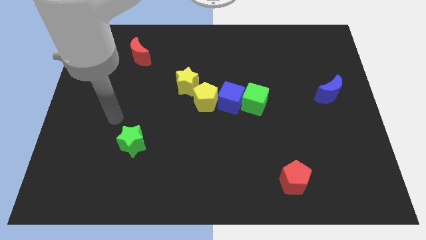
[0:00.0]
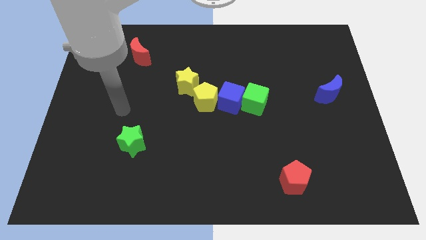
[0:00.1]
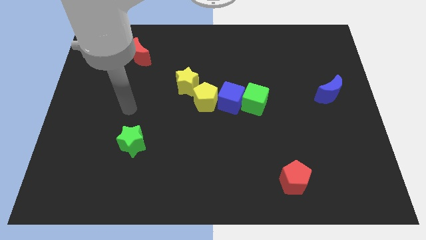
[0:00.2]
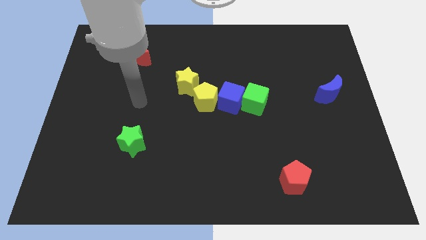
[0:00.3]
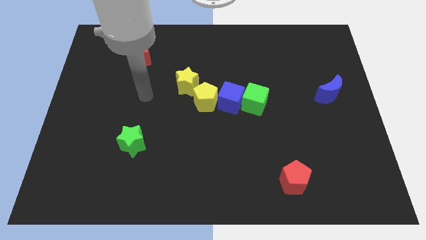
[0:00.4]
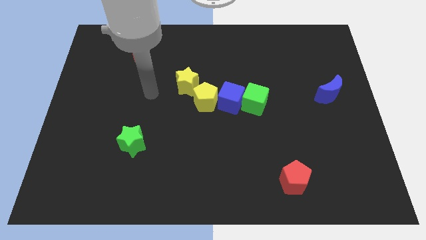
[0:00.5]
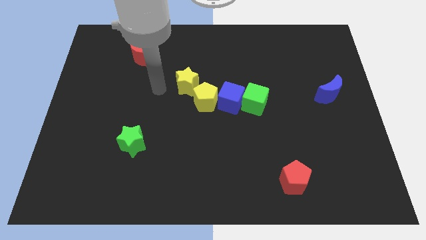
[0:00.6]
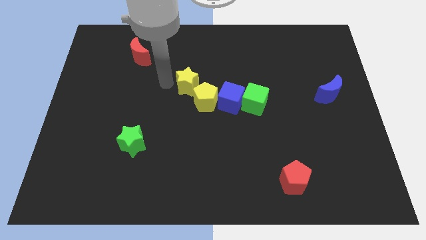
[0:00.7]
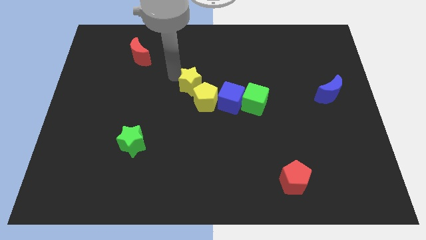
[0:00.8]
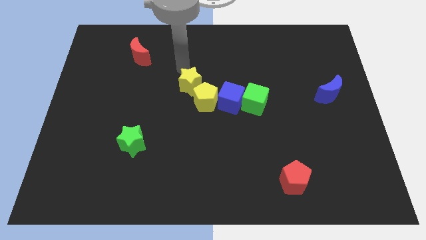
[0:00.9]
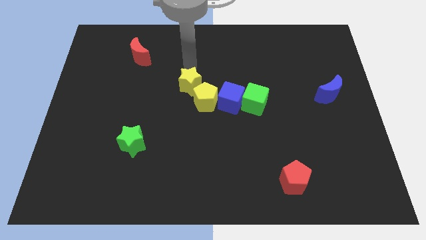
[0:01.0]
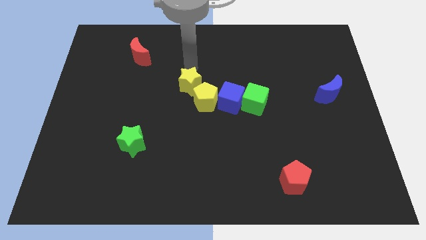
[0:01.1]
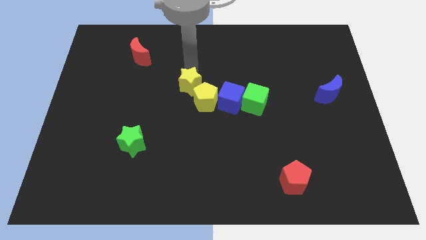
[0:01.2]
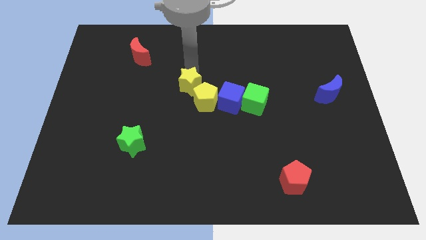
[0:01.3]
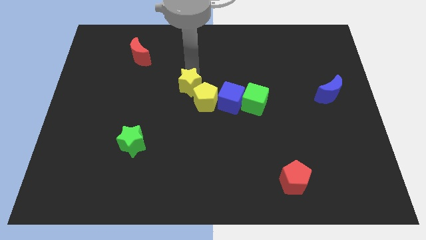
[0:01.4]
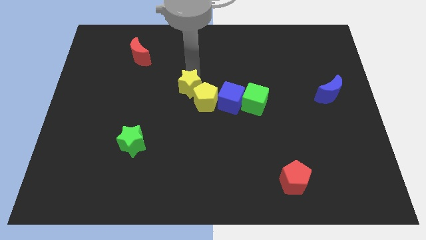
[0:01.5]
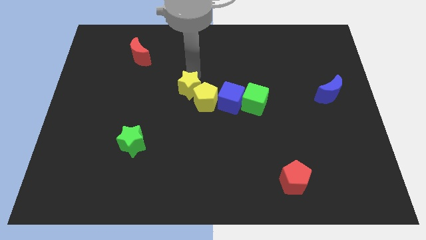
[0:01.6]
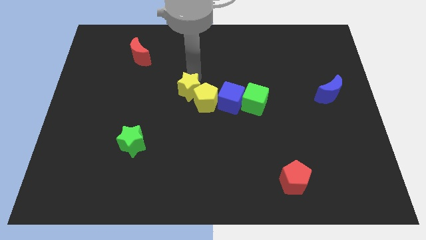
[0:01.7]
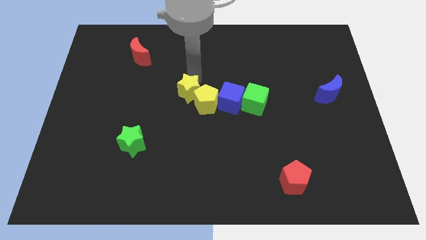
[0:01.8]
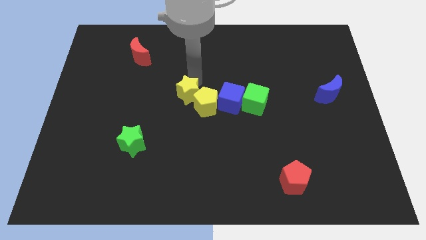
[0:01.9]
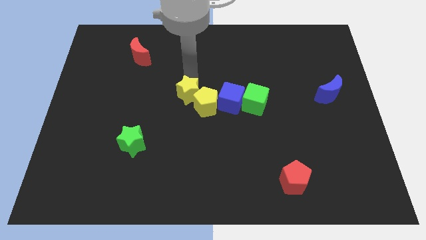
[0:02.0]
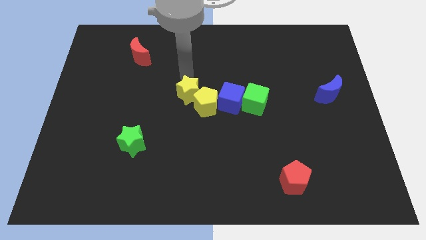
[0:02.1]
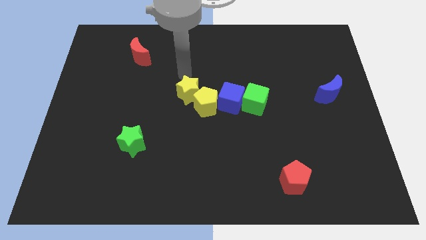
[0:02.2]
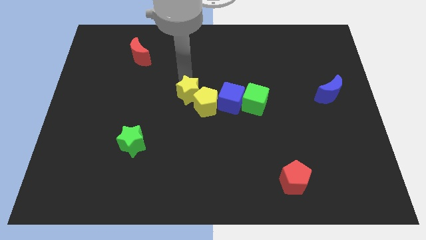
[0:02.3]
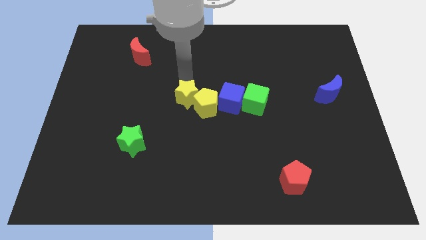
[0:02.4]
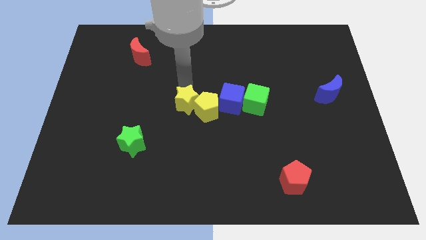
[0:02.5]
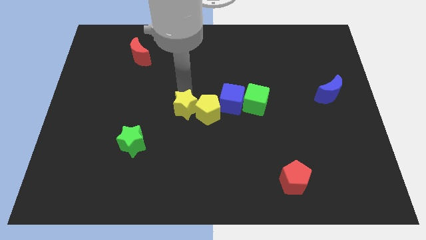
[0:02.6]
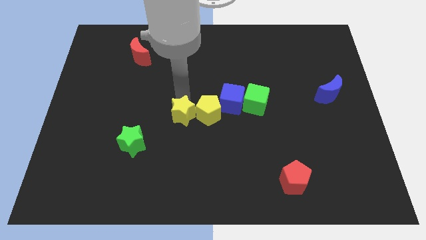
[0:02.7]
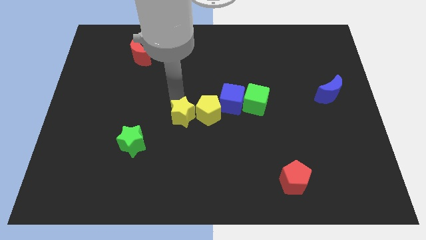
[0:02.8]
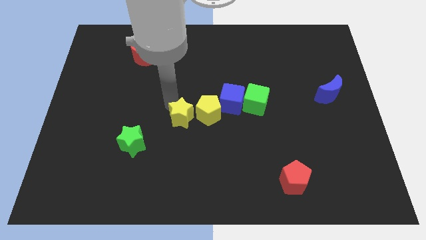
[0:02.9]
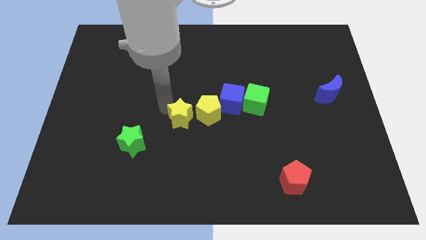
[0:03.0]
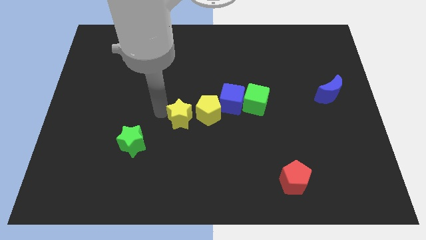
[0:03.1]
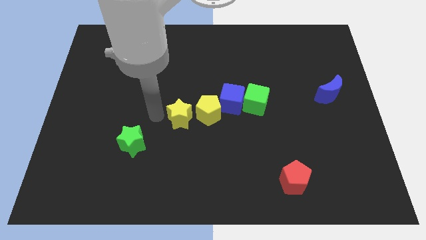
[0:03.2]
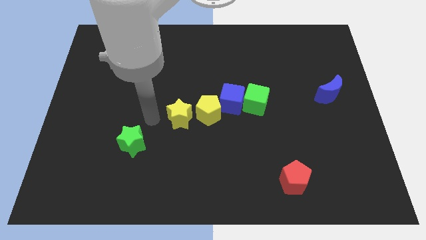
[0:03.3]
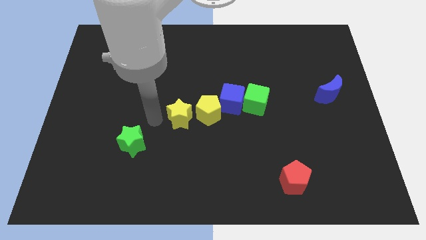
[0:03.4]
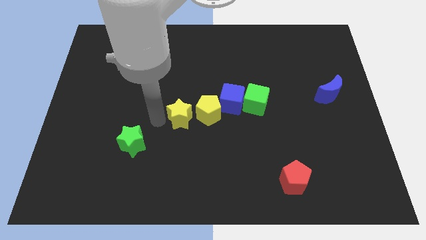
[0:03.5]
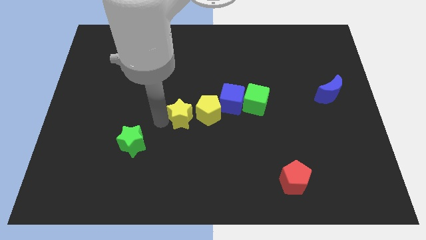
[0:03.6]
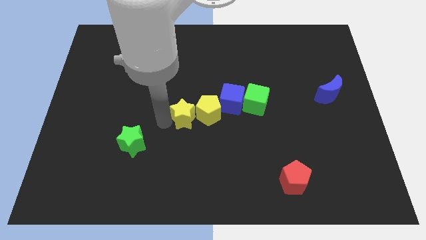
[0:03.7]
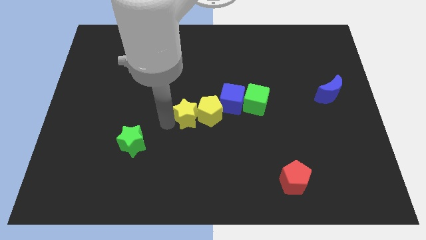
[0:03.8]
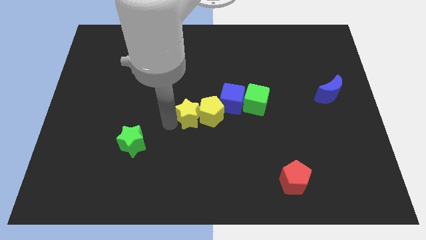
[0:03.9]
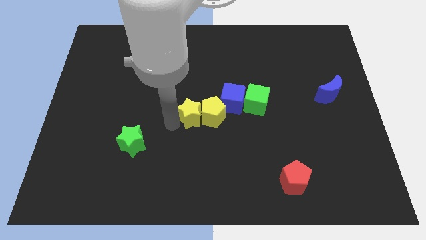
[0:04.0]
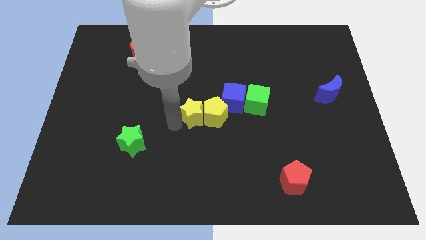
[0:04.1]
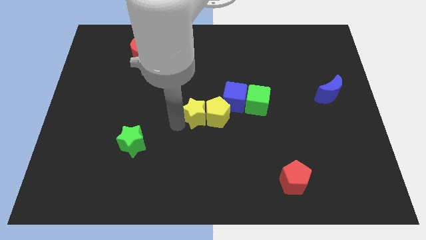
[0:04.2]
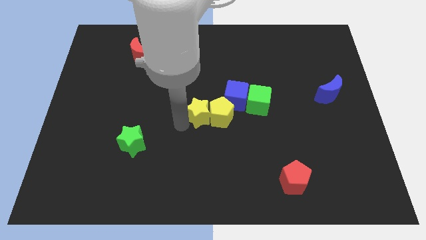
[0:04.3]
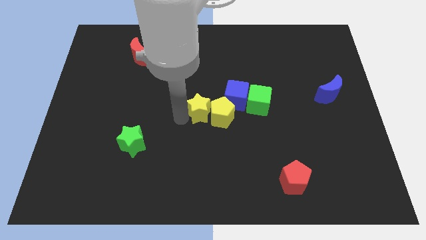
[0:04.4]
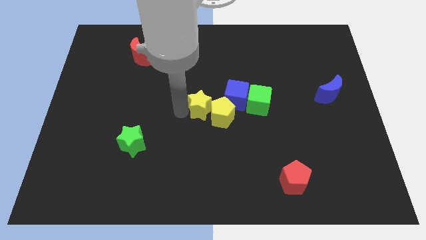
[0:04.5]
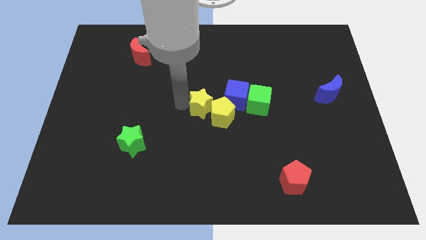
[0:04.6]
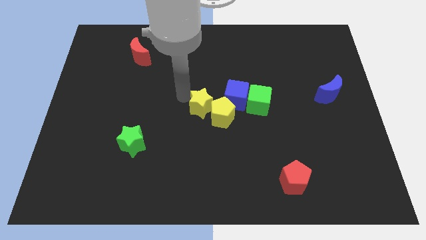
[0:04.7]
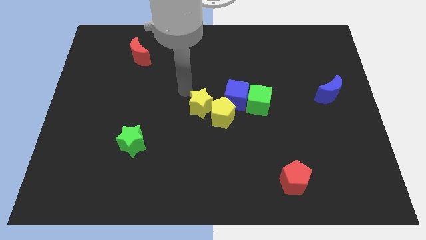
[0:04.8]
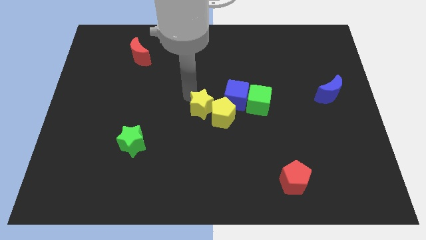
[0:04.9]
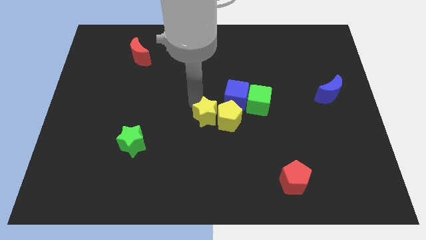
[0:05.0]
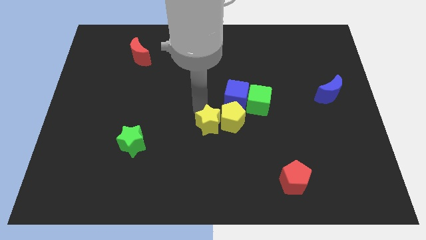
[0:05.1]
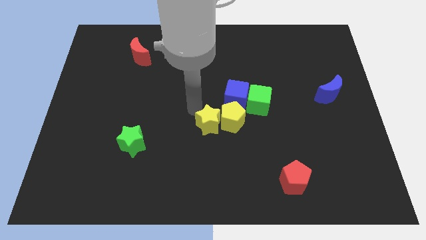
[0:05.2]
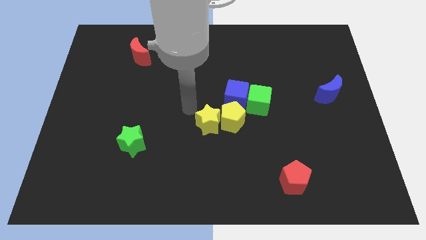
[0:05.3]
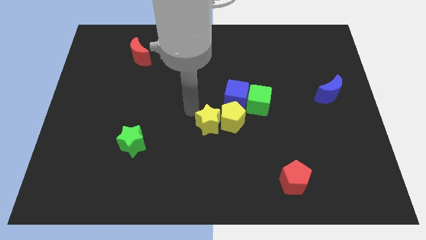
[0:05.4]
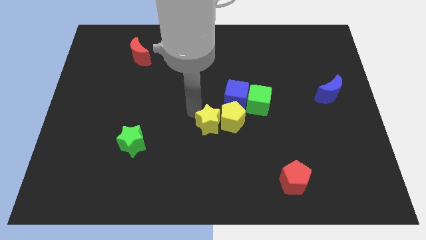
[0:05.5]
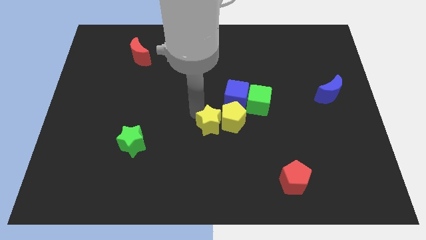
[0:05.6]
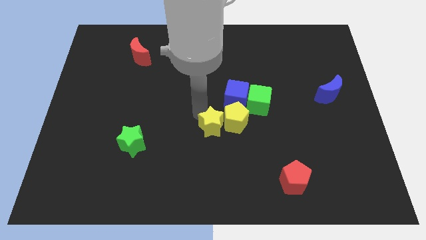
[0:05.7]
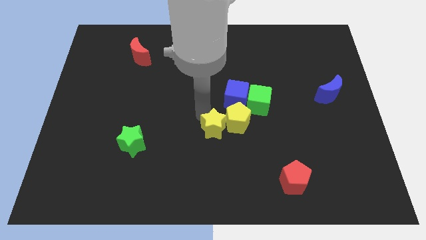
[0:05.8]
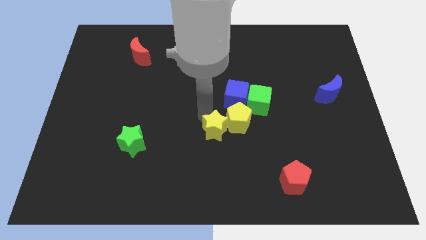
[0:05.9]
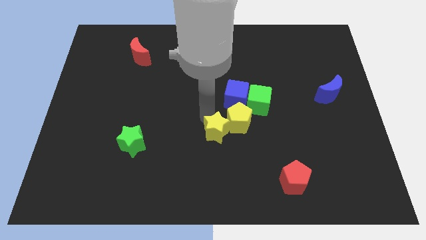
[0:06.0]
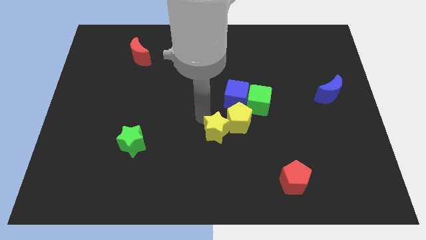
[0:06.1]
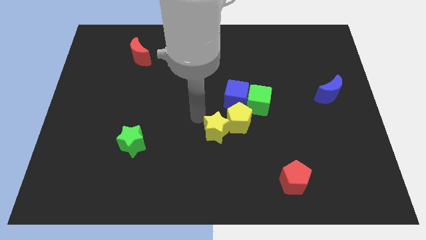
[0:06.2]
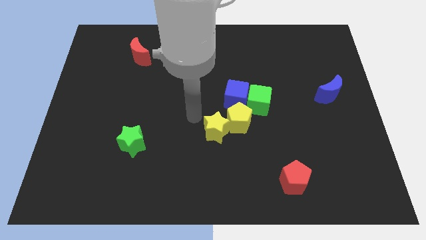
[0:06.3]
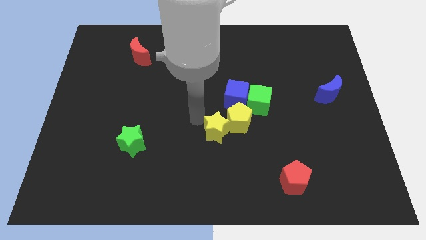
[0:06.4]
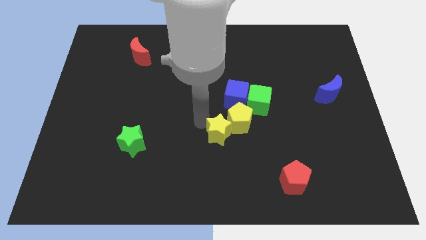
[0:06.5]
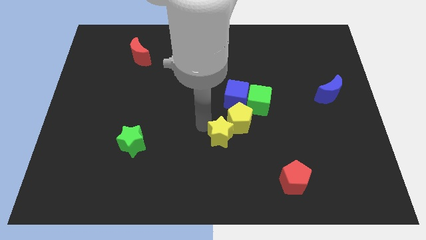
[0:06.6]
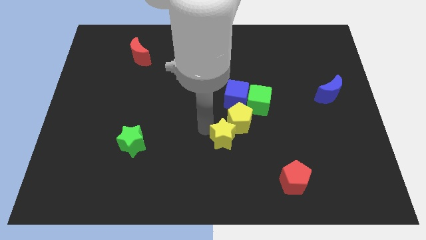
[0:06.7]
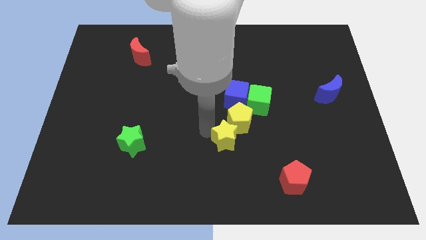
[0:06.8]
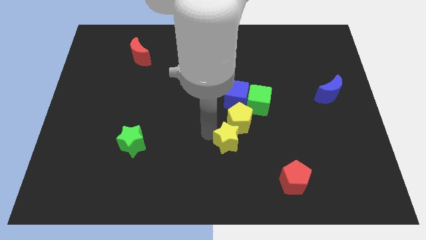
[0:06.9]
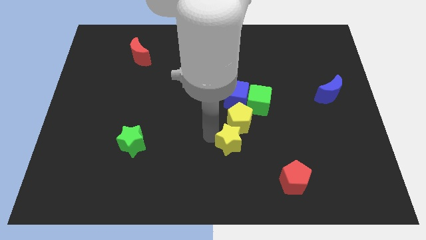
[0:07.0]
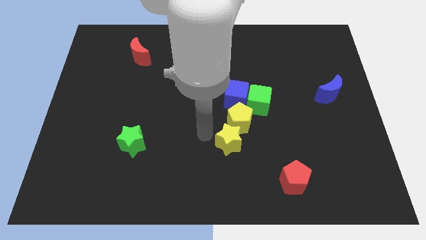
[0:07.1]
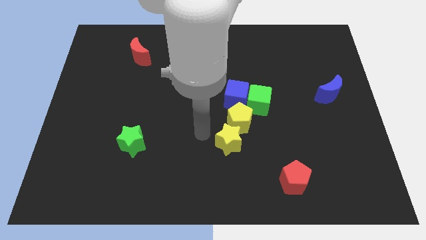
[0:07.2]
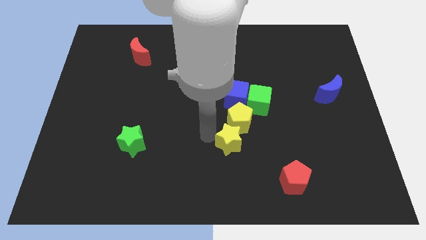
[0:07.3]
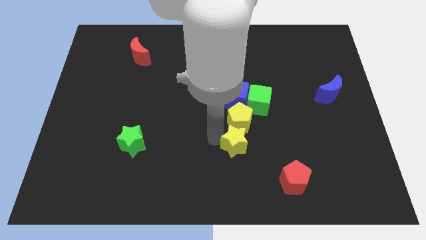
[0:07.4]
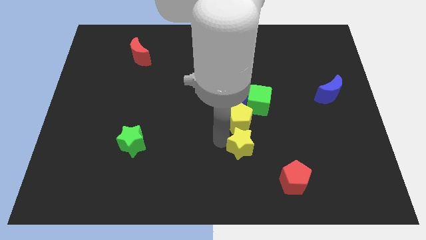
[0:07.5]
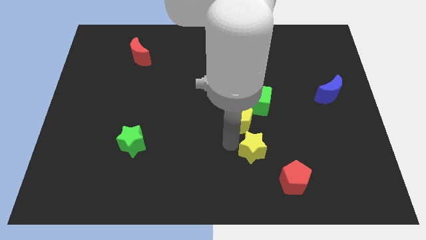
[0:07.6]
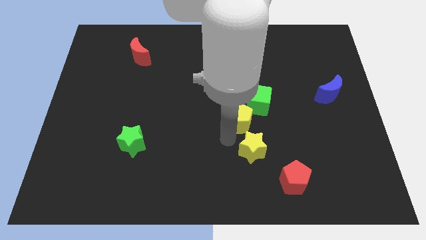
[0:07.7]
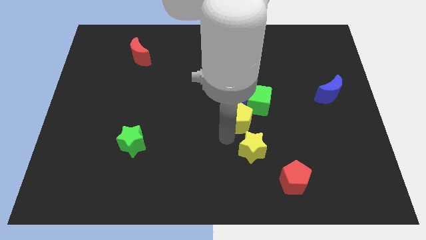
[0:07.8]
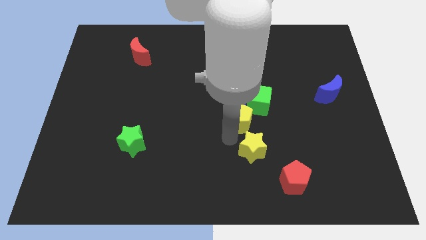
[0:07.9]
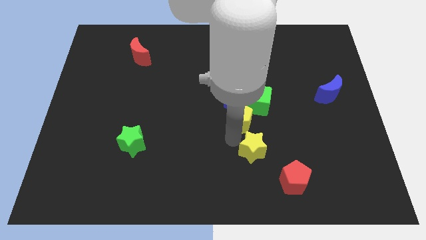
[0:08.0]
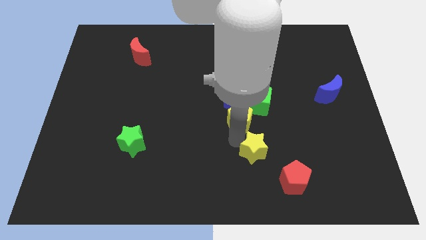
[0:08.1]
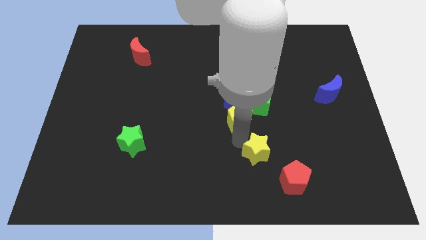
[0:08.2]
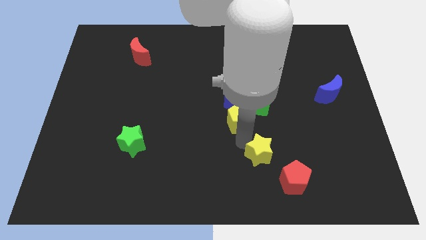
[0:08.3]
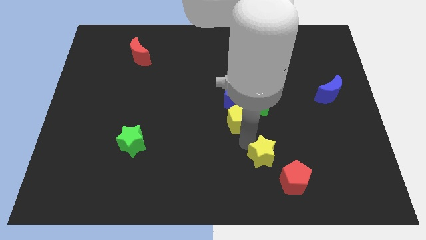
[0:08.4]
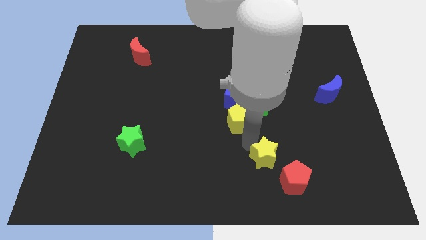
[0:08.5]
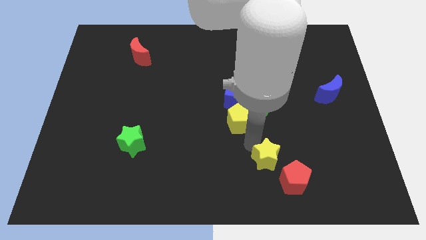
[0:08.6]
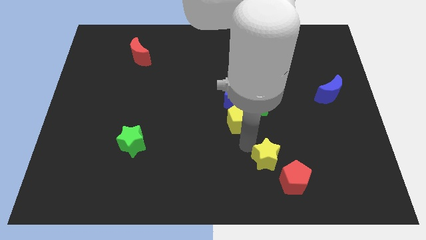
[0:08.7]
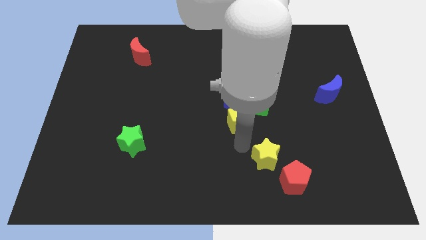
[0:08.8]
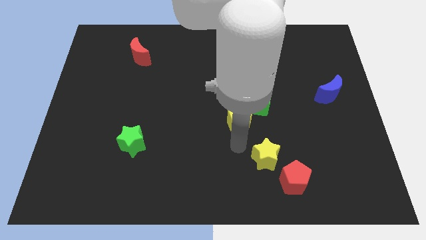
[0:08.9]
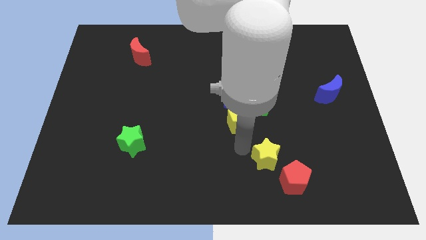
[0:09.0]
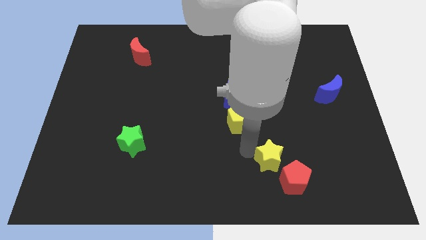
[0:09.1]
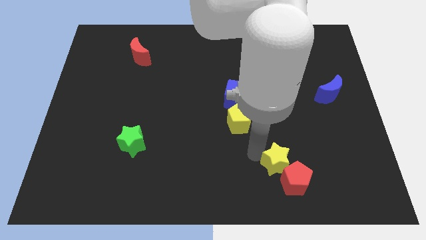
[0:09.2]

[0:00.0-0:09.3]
put the yellow star towards the red pentagon
